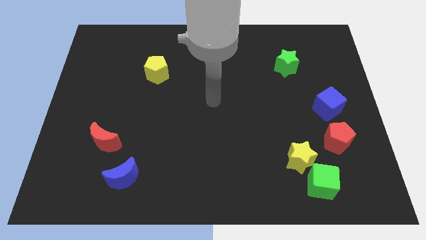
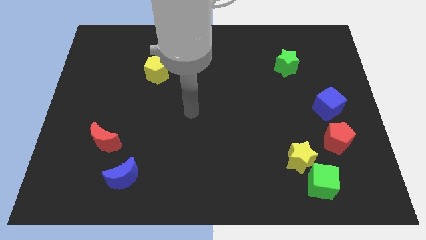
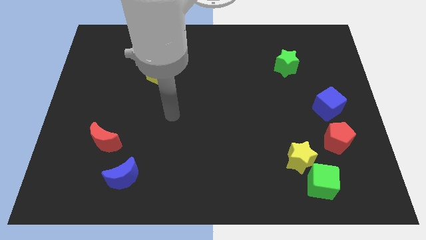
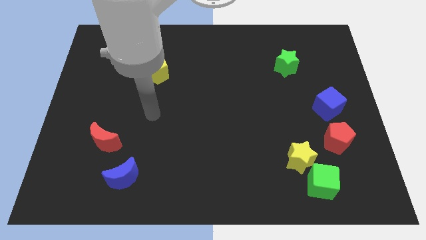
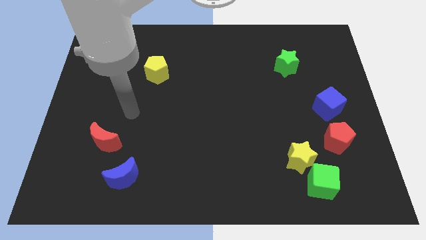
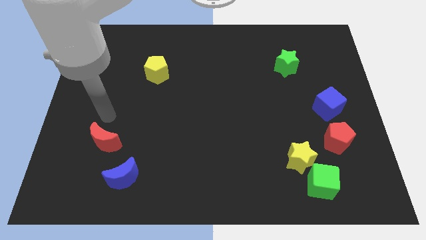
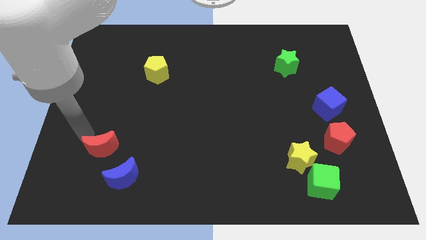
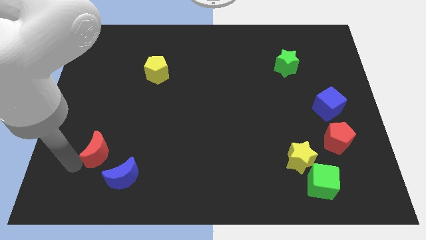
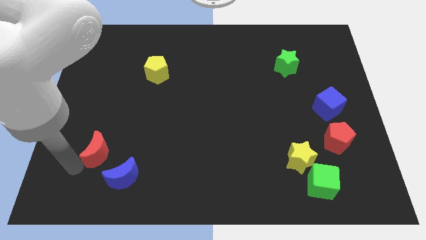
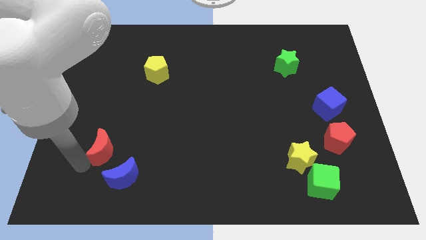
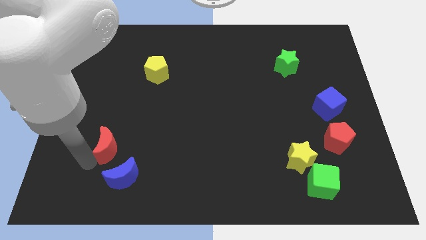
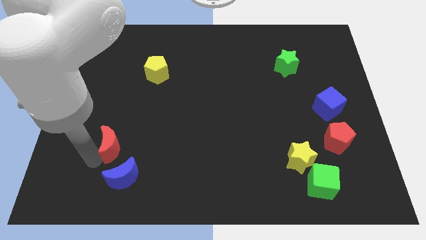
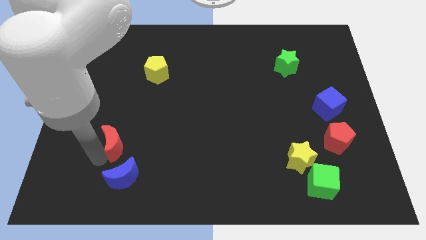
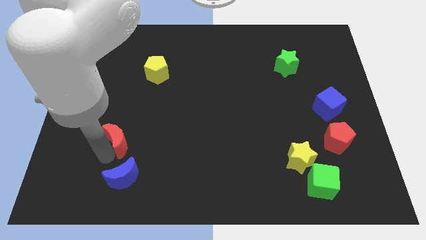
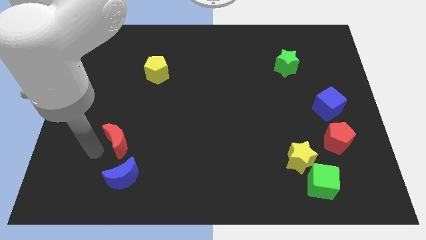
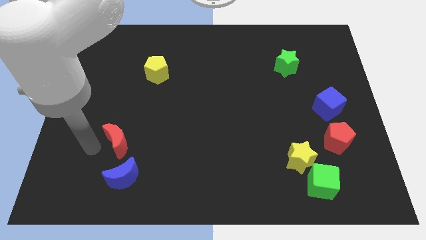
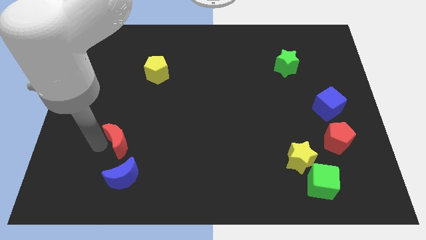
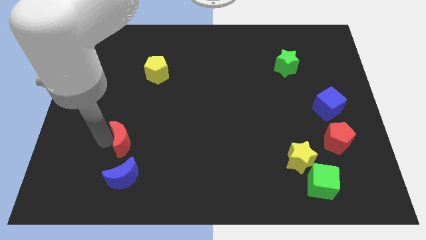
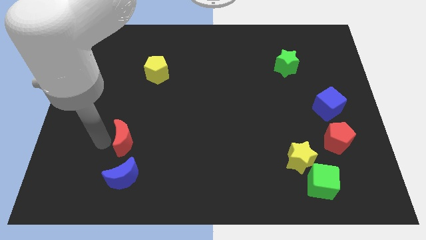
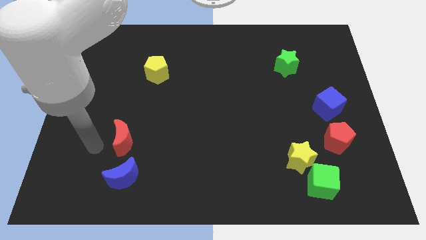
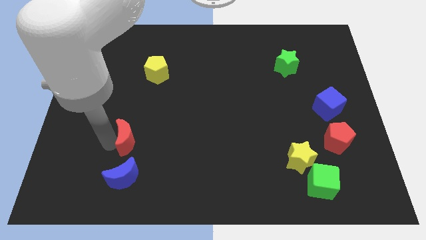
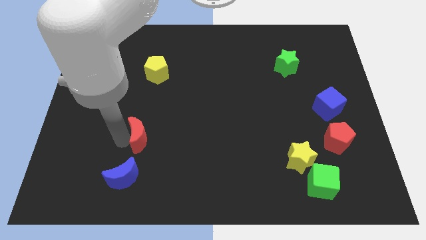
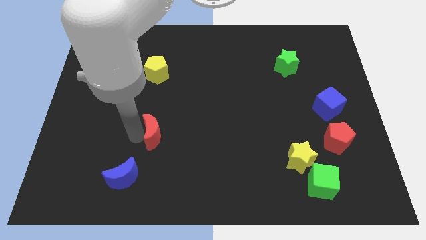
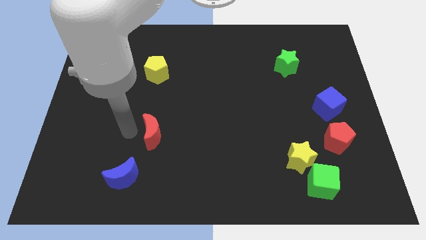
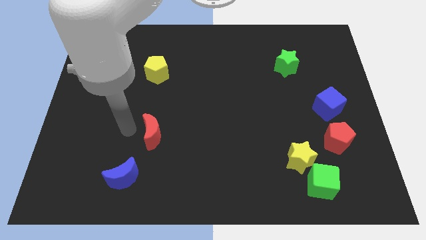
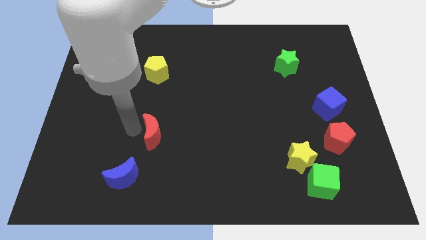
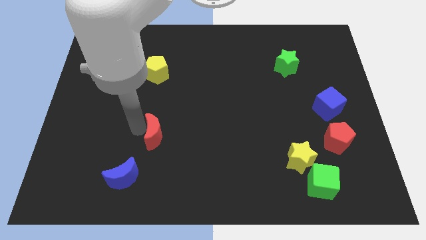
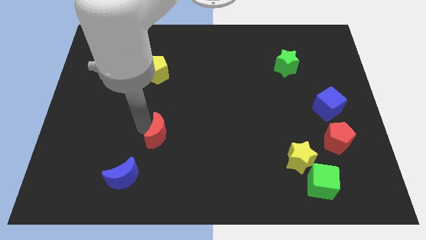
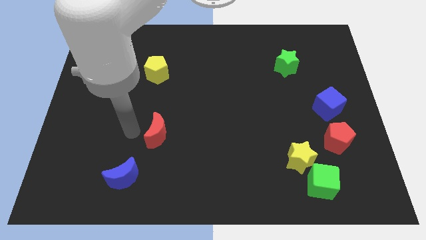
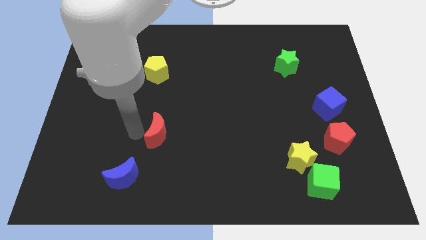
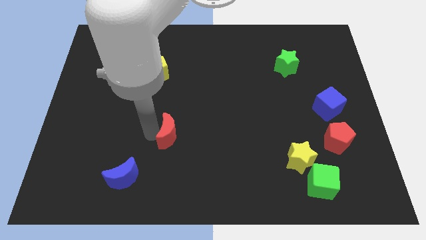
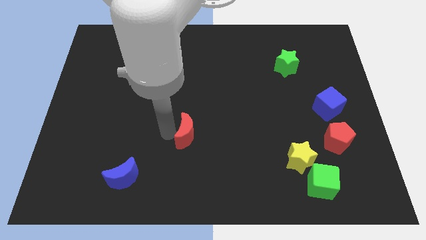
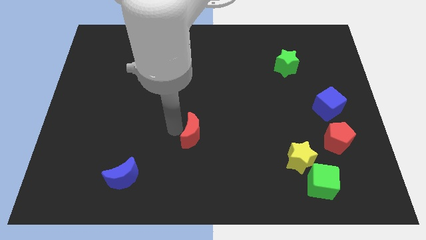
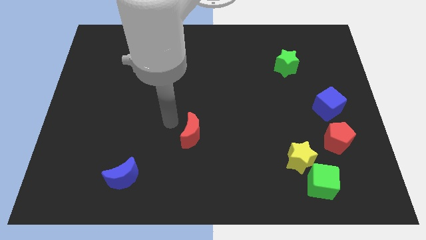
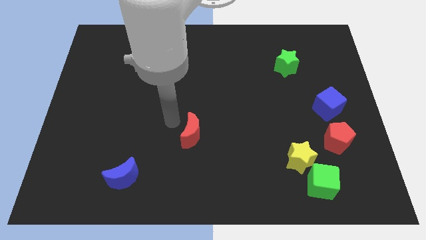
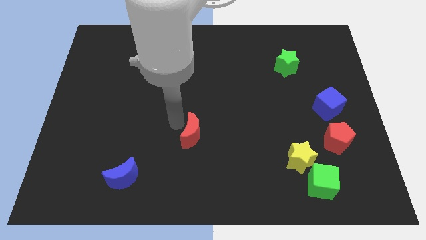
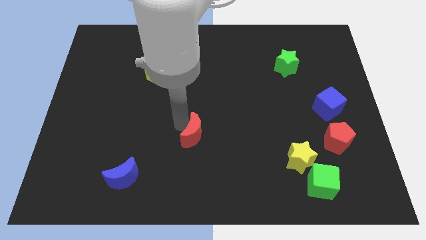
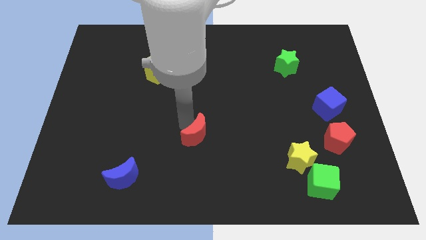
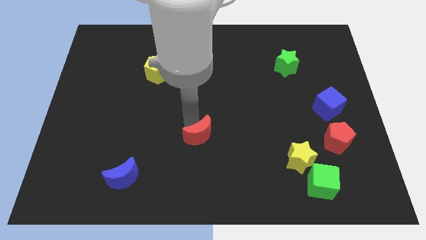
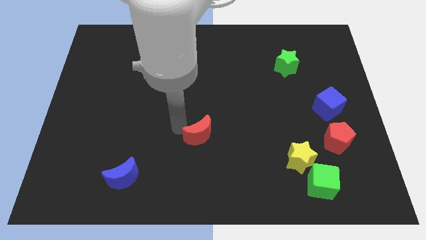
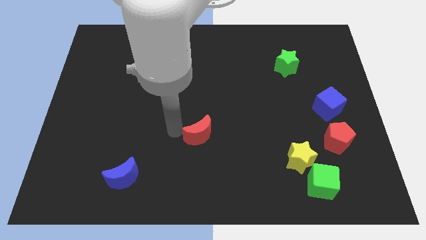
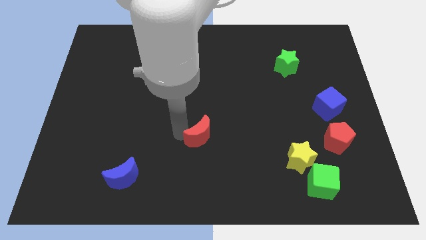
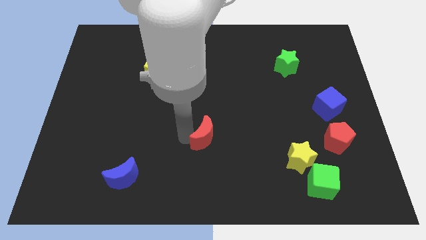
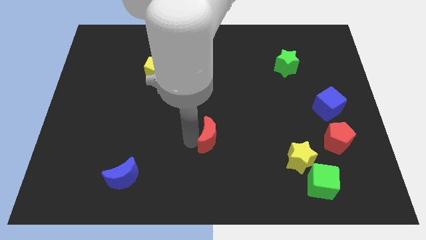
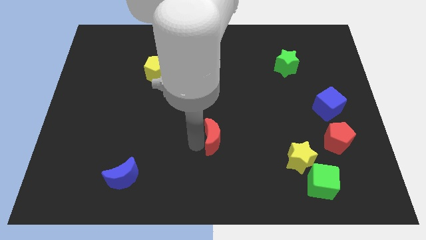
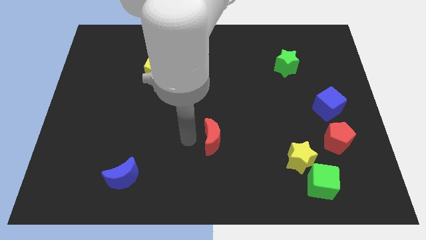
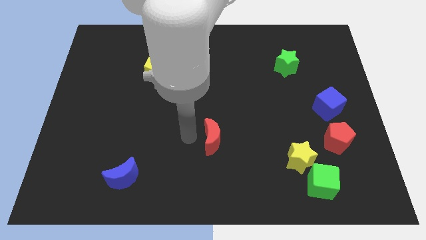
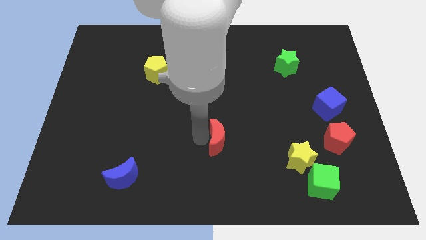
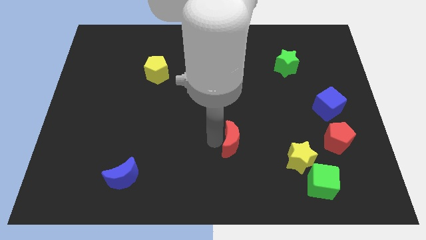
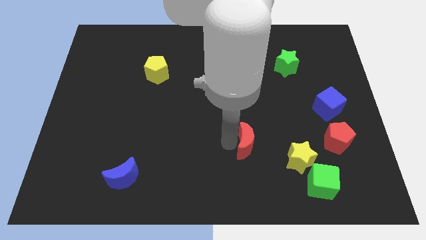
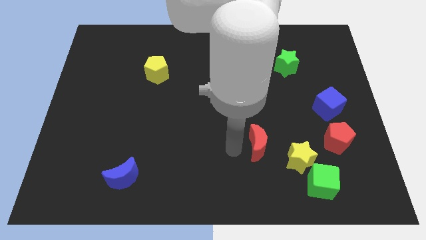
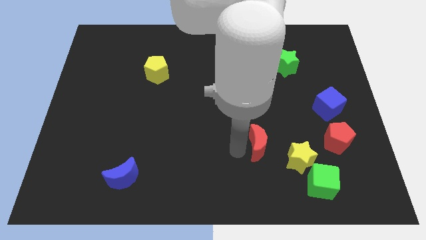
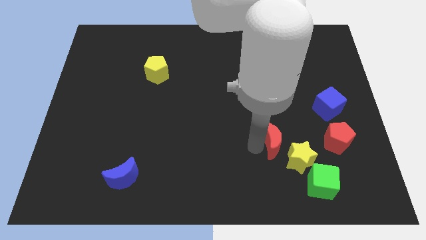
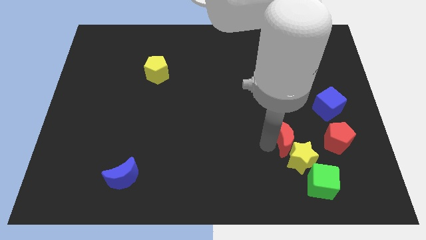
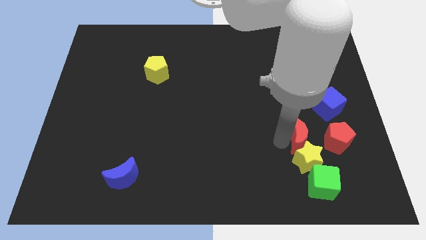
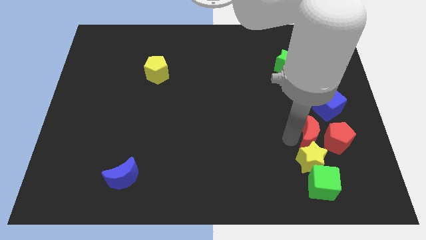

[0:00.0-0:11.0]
slide the red moon next to the red pentagon

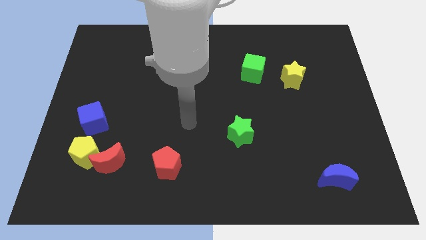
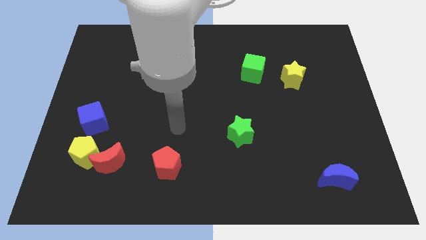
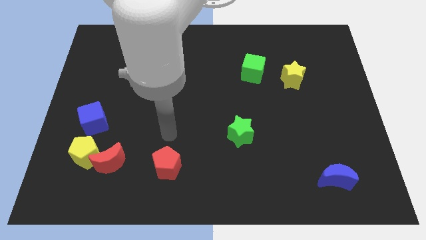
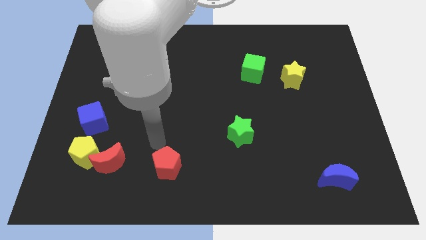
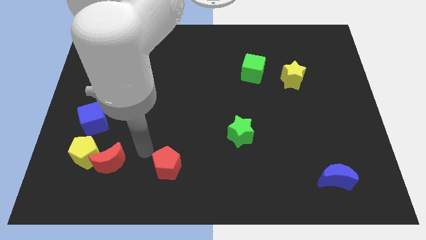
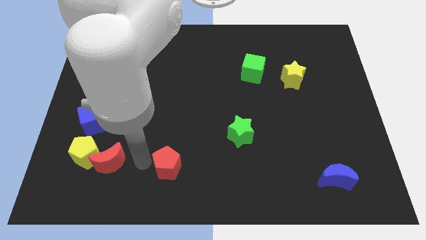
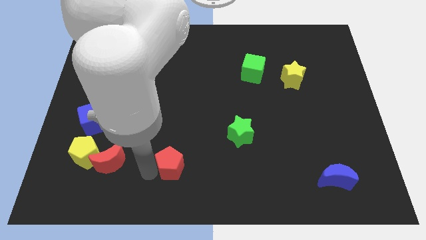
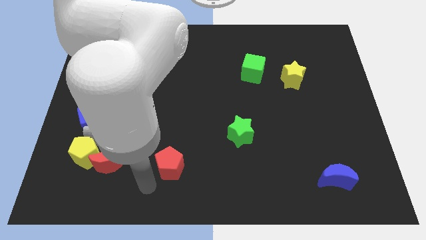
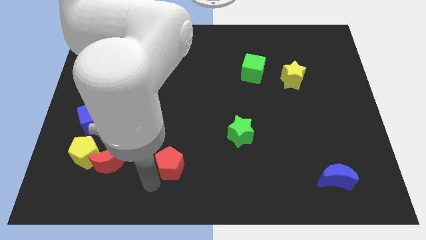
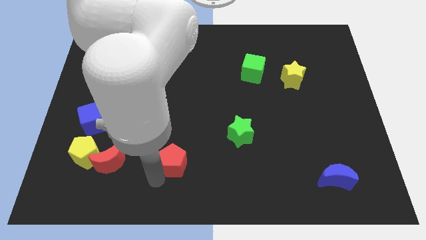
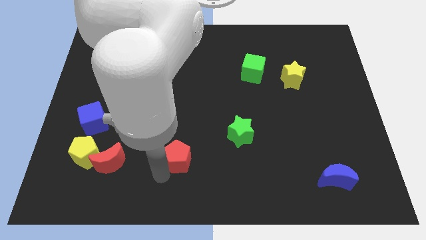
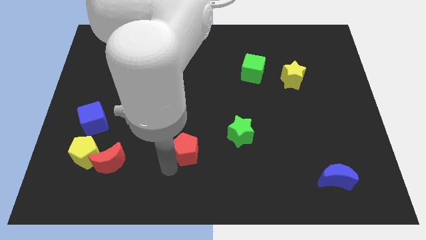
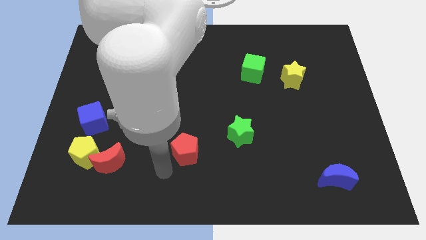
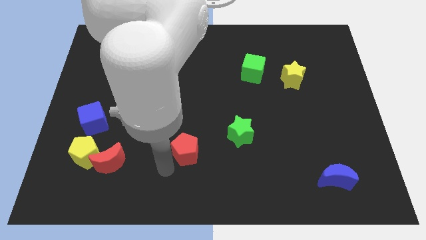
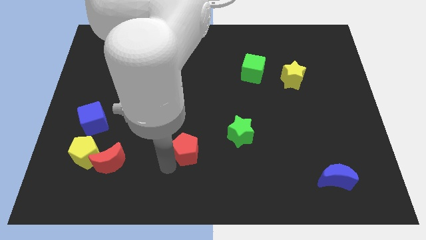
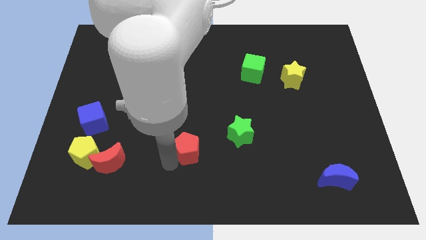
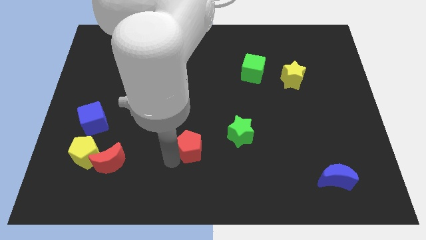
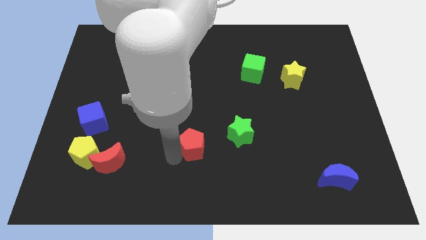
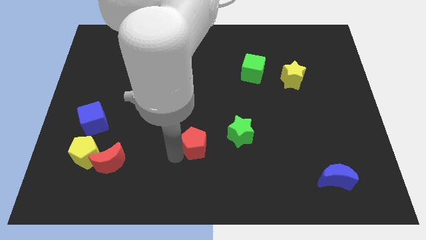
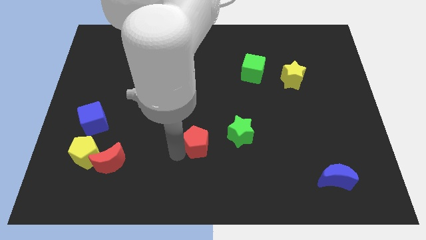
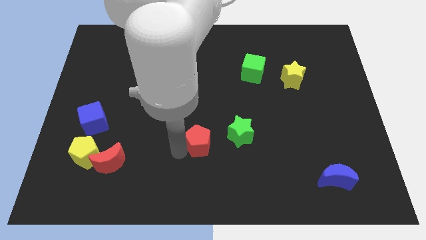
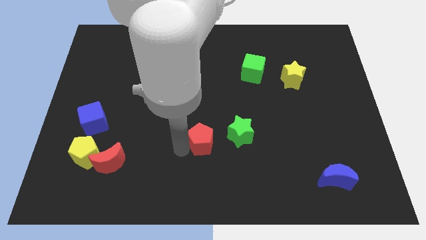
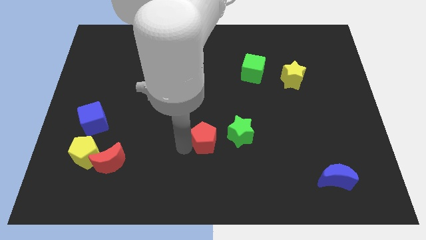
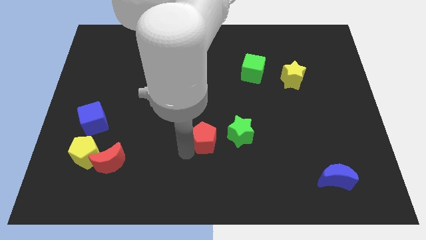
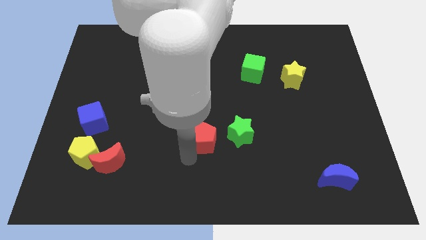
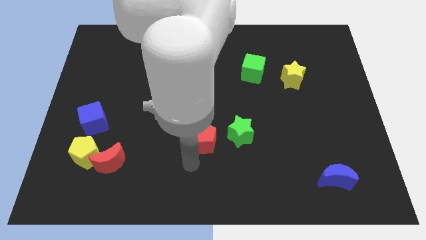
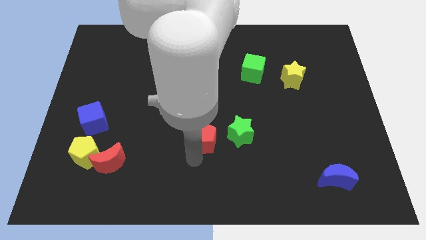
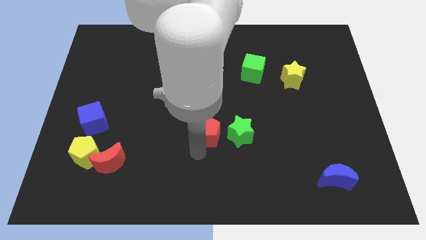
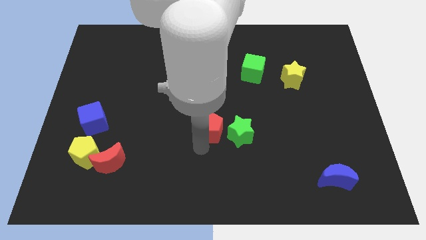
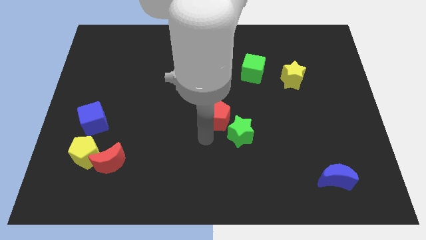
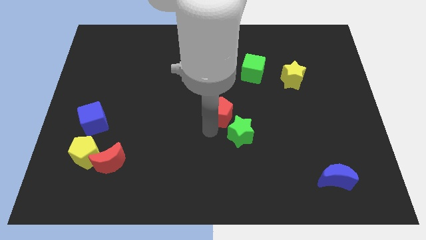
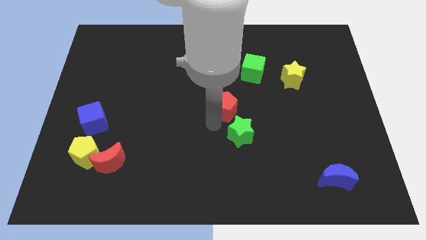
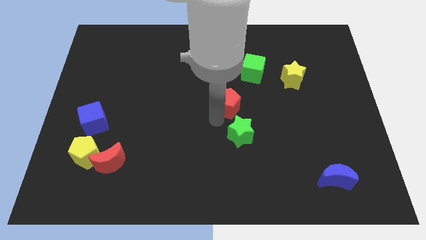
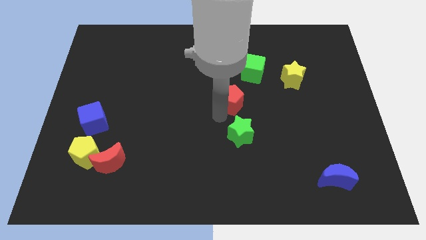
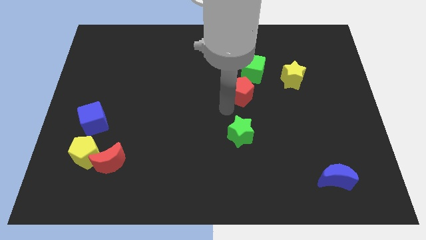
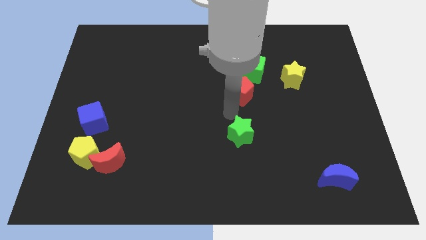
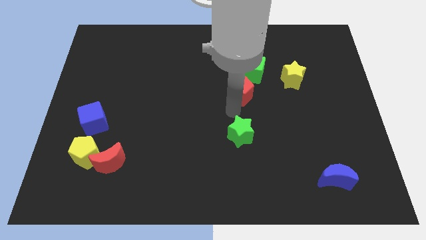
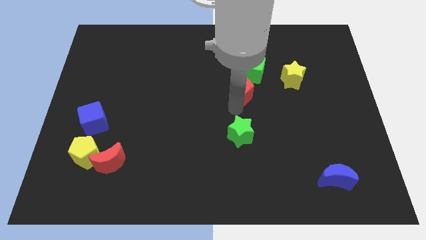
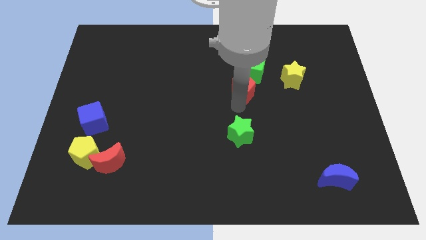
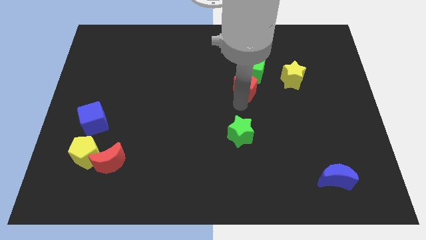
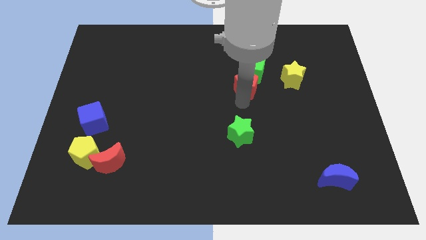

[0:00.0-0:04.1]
put the red pentagon next to the green cube
